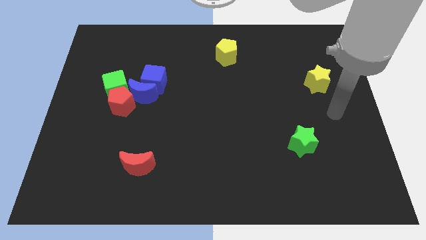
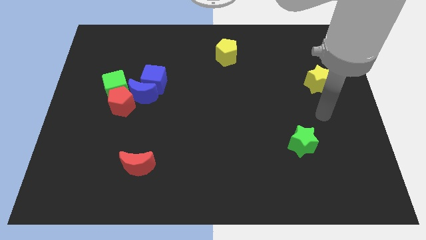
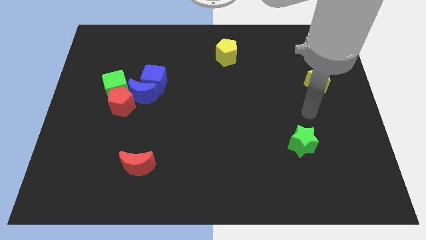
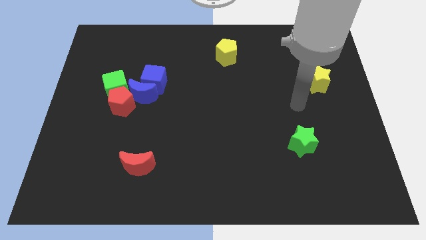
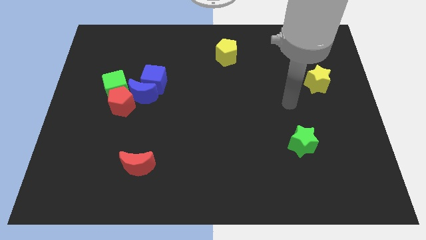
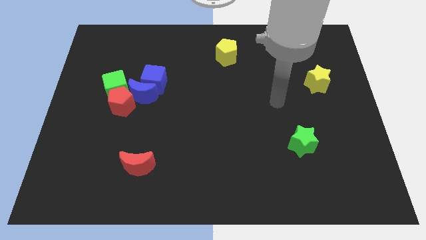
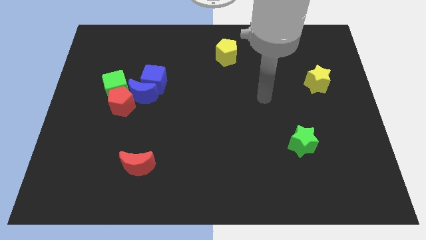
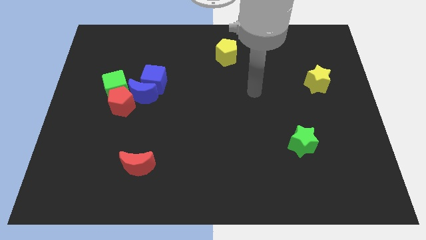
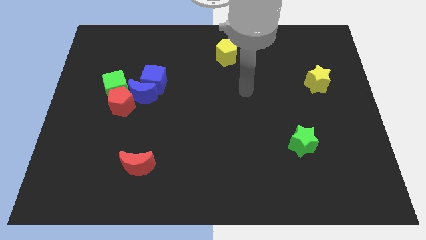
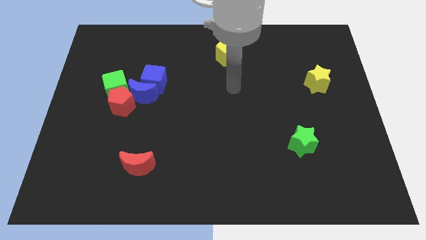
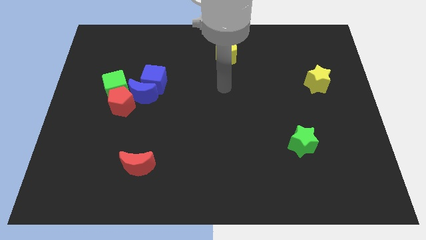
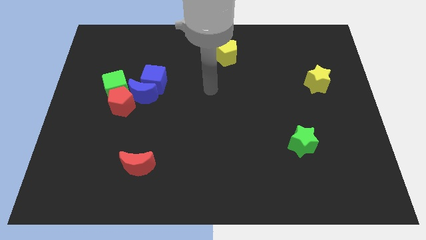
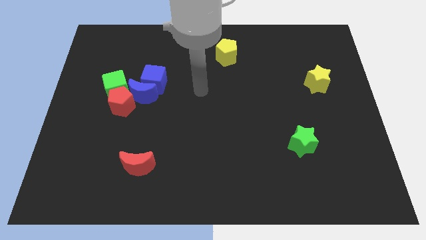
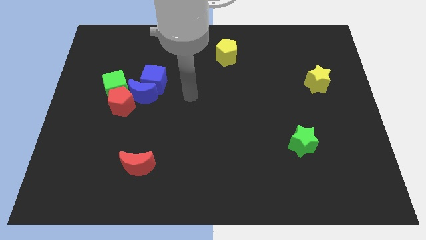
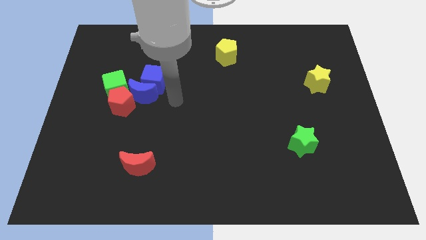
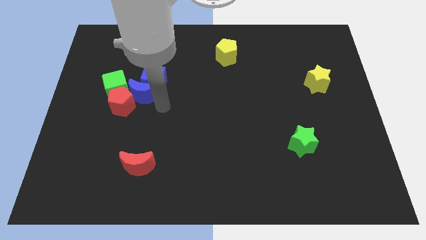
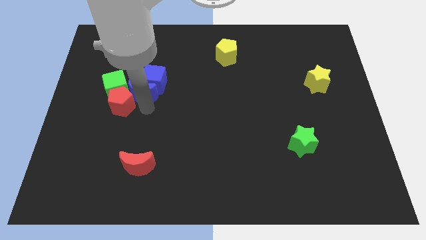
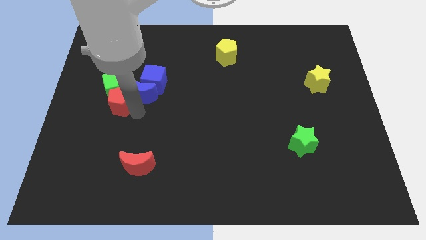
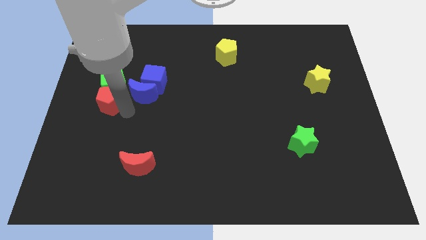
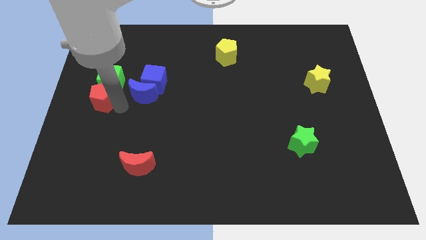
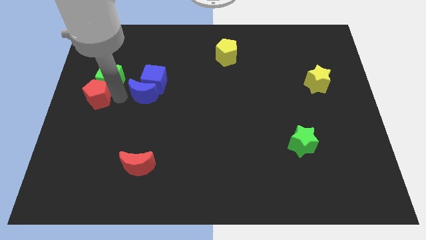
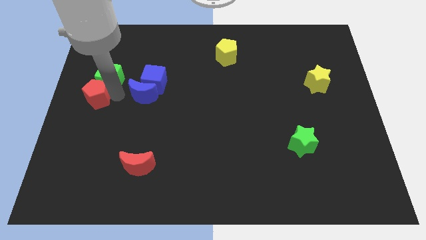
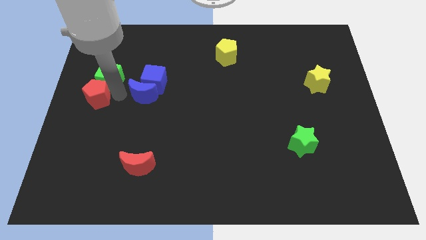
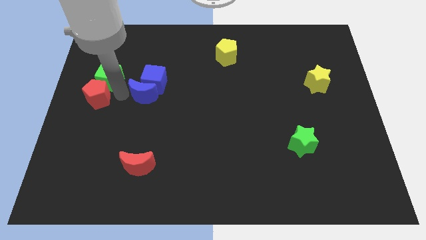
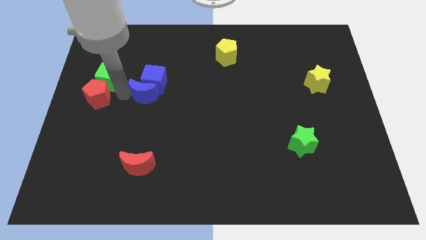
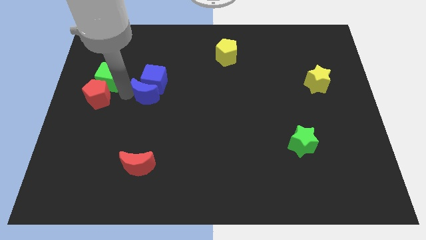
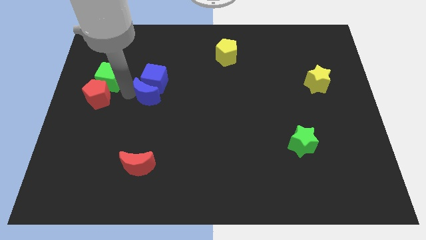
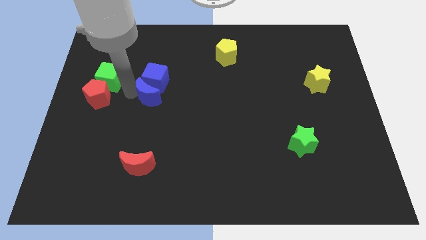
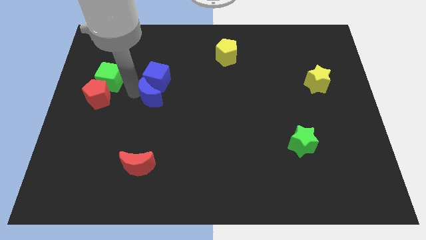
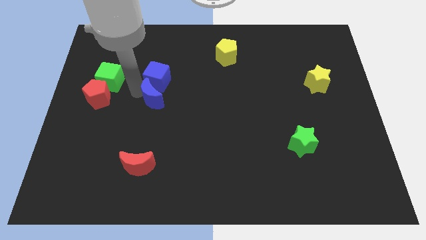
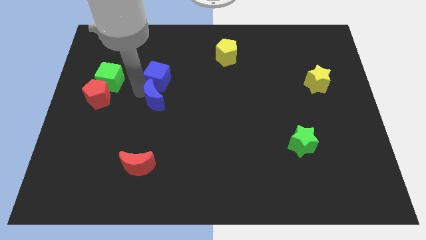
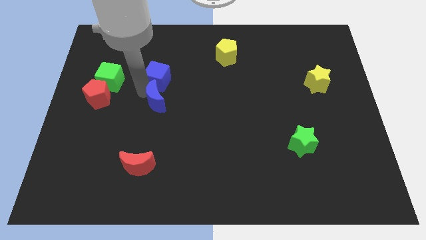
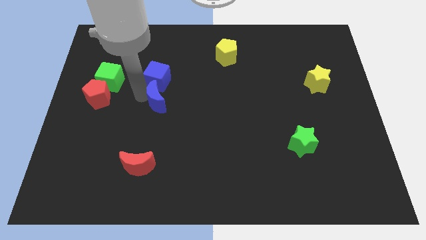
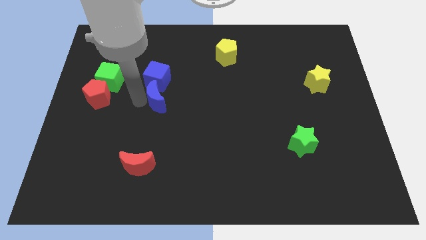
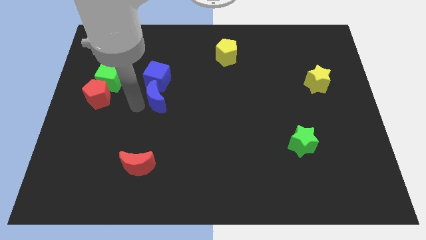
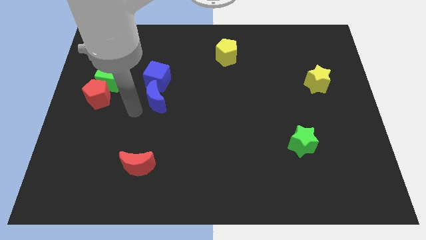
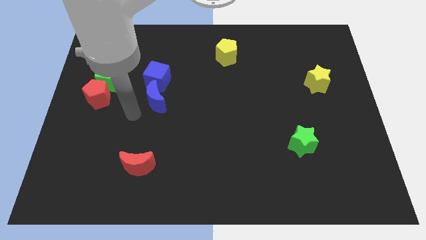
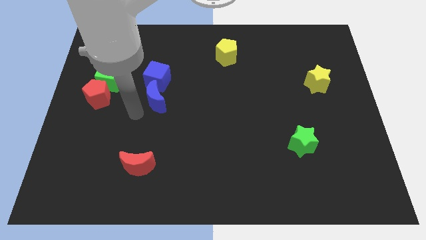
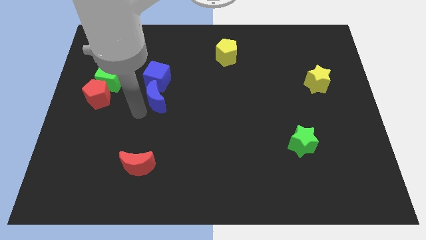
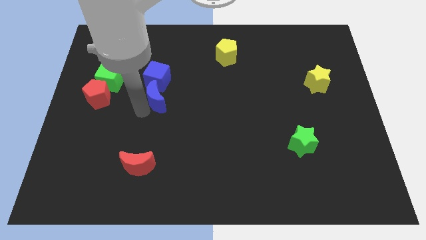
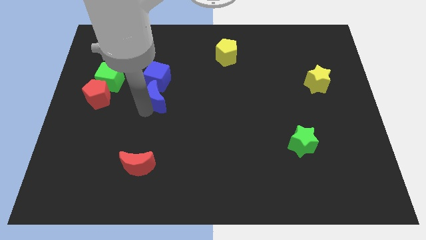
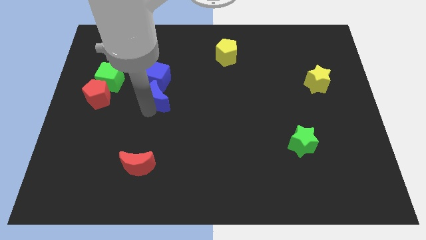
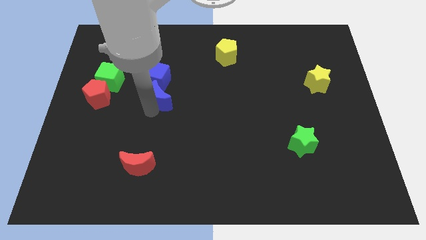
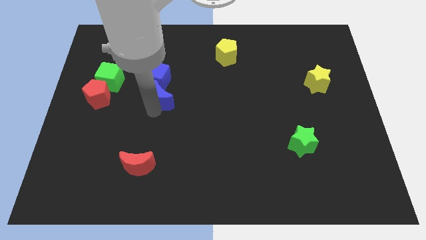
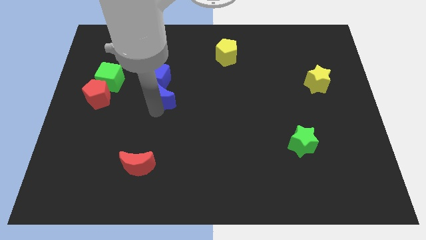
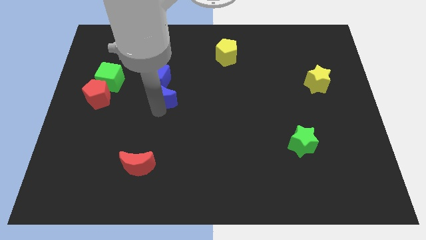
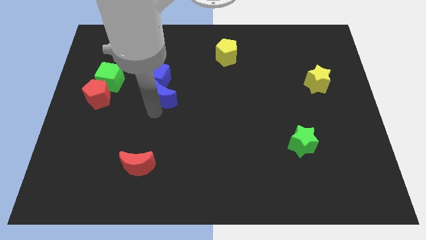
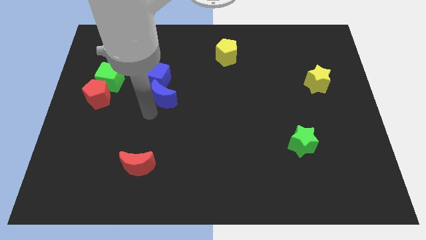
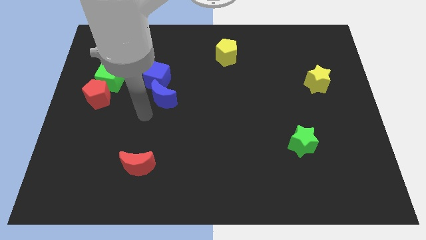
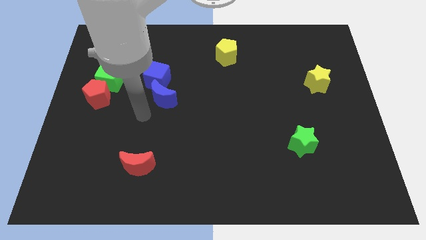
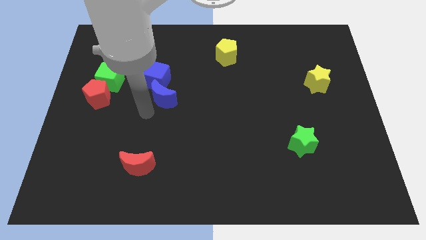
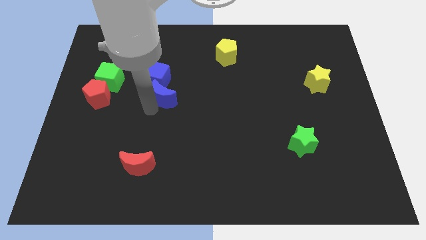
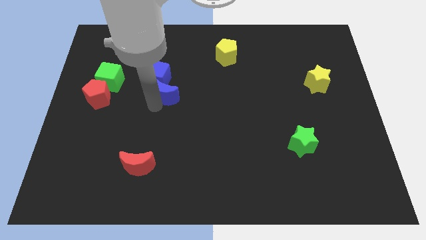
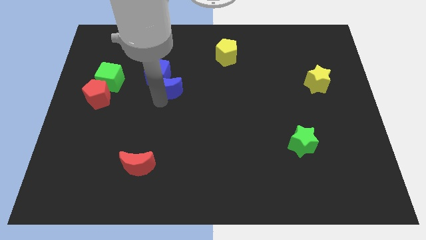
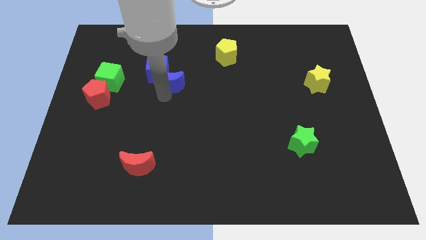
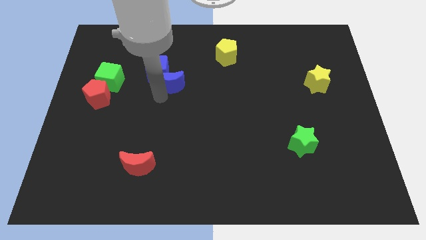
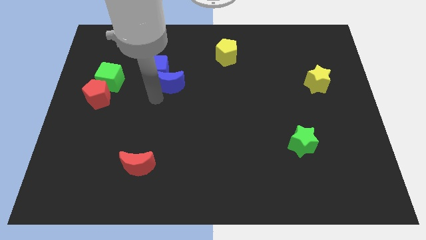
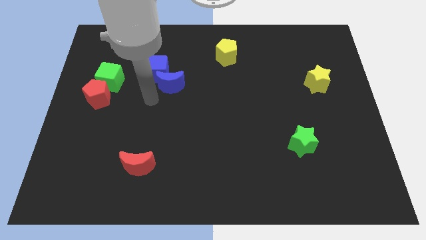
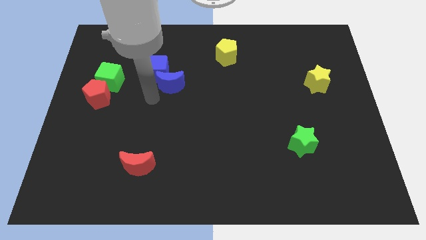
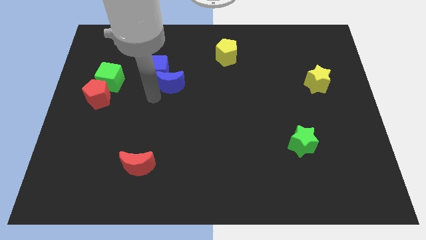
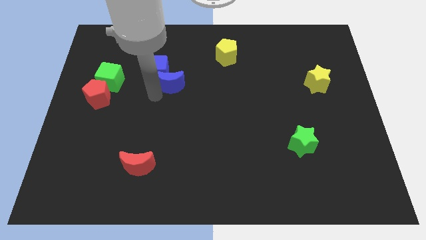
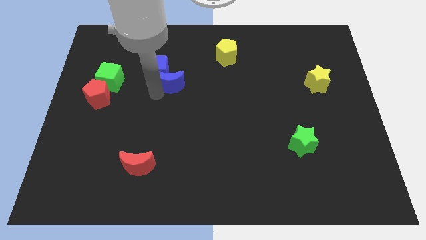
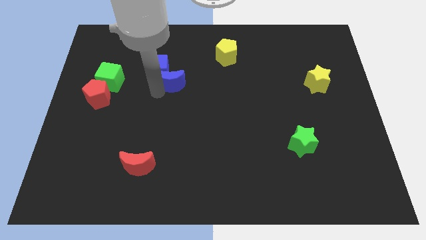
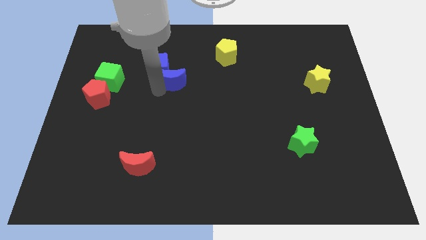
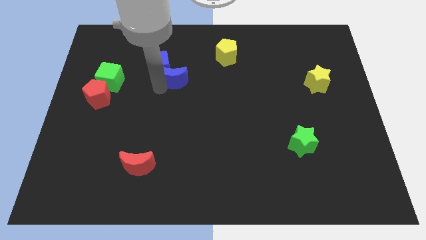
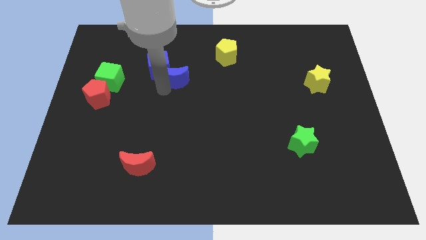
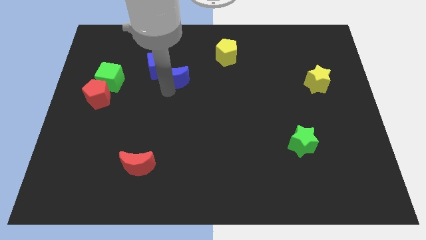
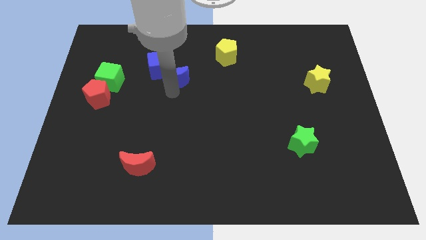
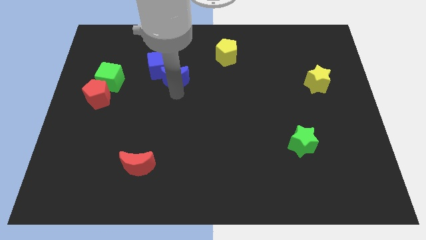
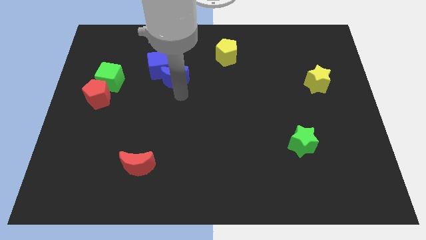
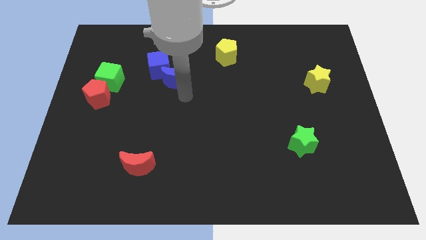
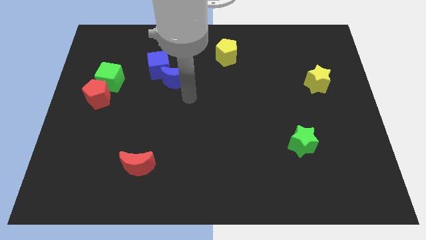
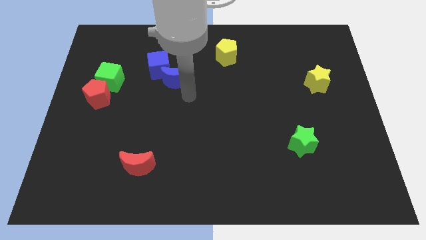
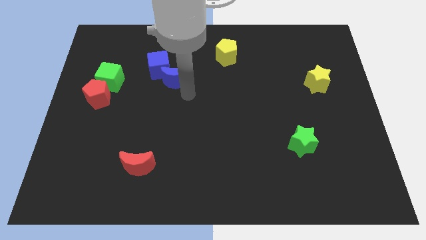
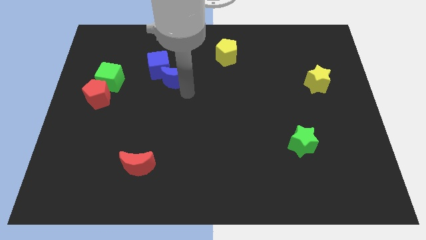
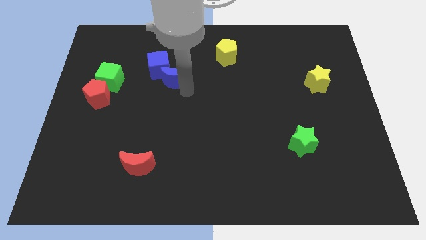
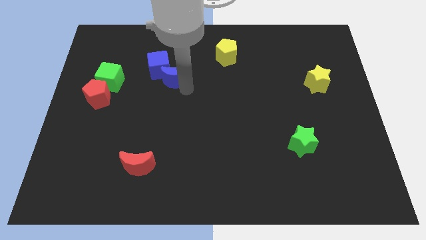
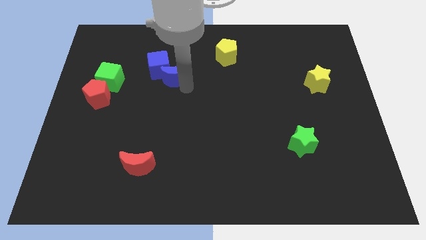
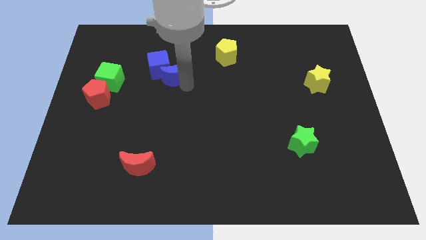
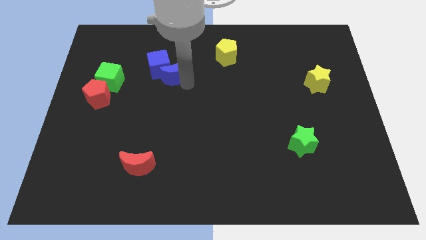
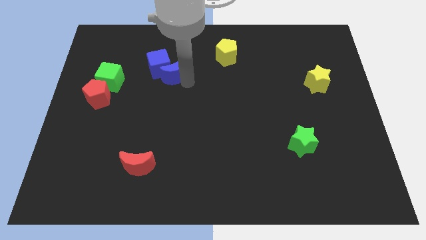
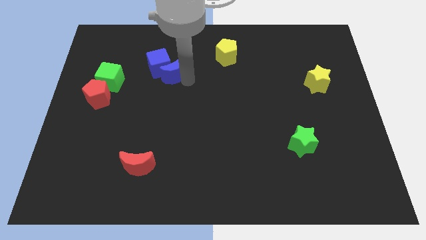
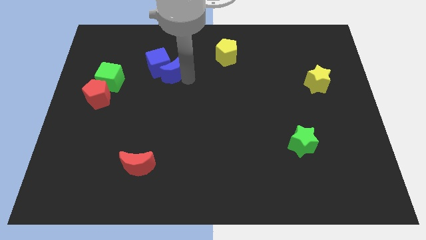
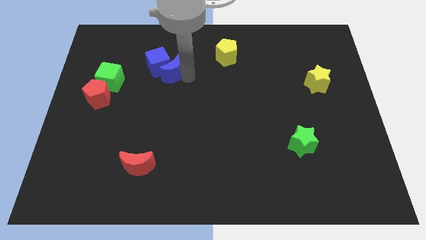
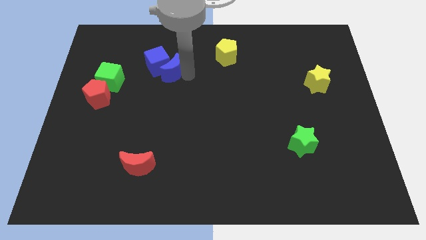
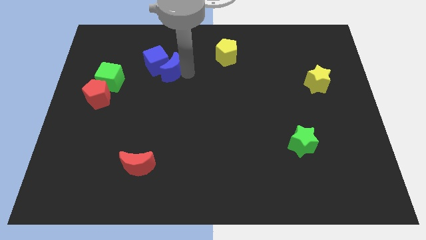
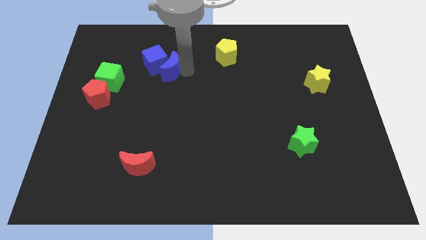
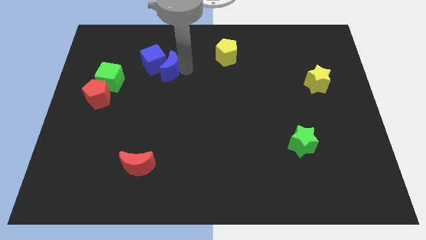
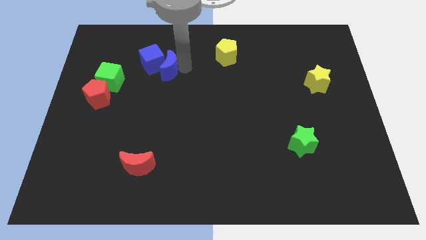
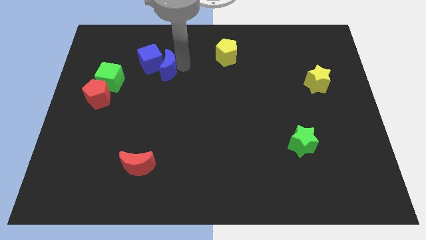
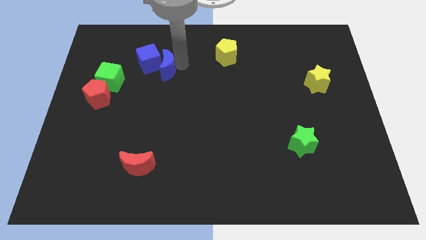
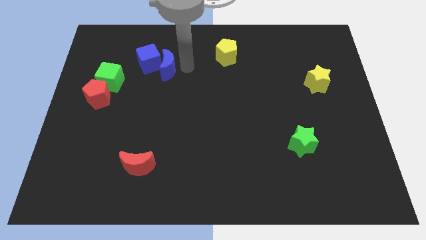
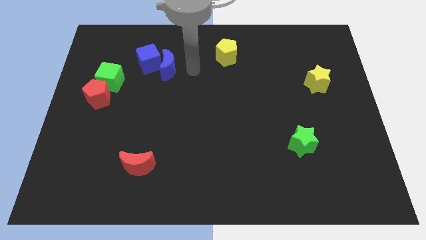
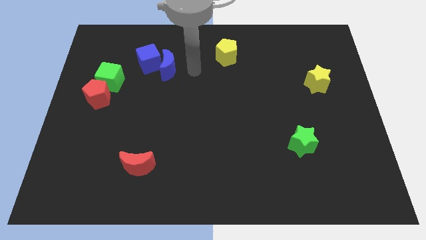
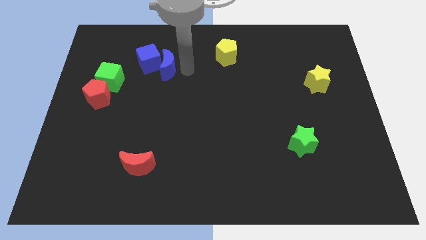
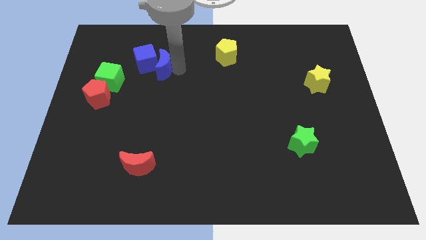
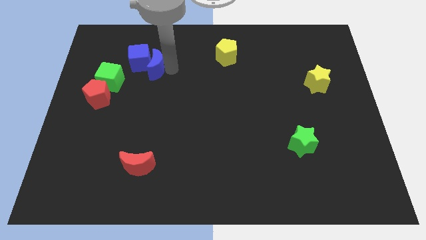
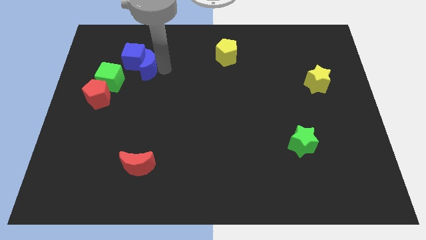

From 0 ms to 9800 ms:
slide the blue moon diagonally up and to the right of the green cube
